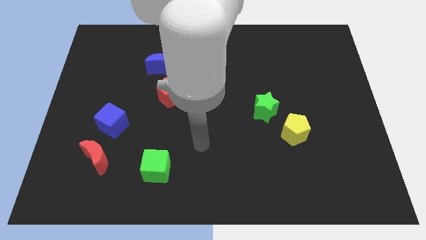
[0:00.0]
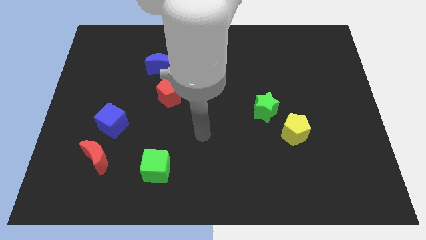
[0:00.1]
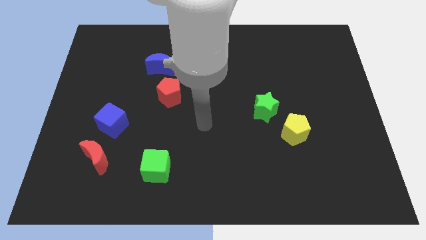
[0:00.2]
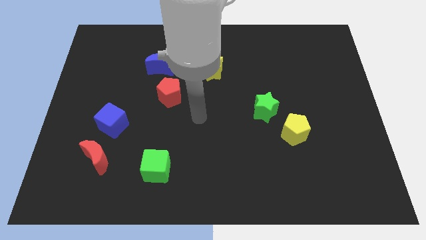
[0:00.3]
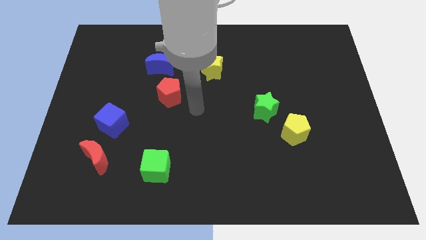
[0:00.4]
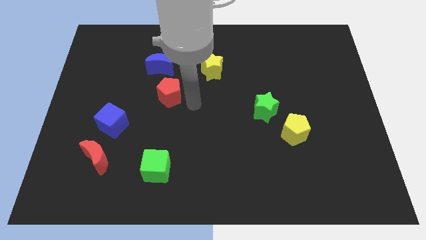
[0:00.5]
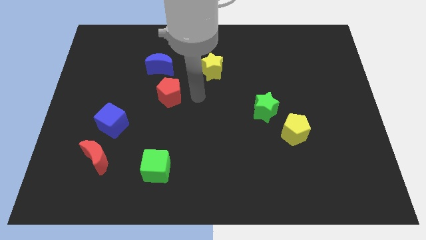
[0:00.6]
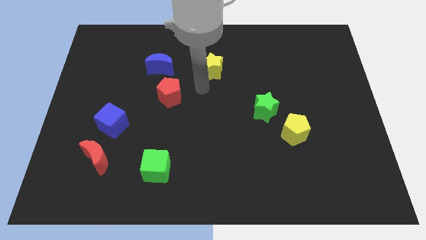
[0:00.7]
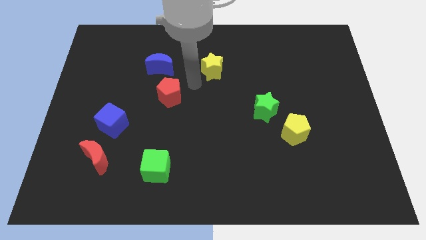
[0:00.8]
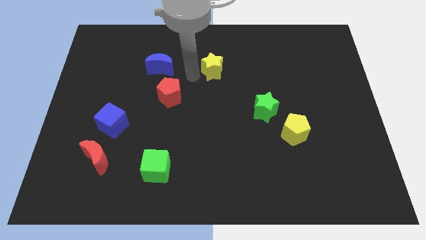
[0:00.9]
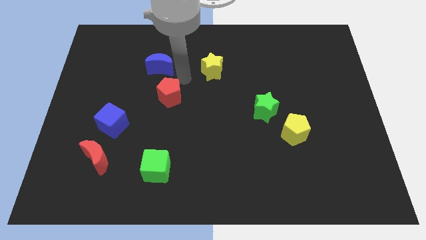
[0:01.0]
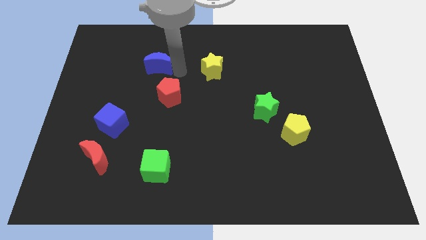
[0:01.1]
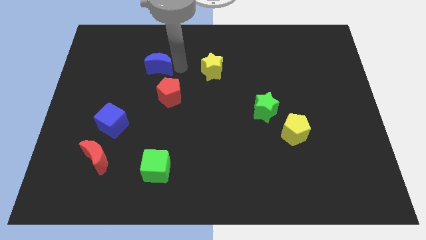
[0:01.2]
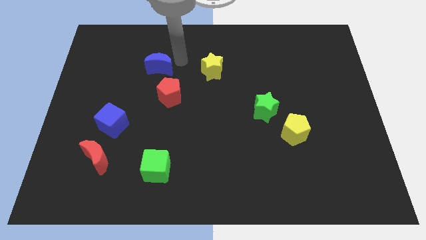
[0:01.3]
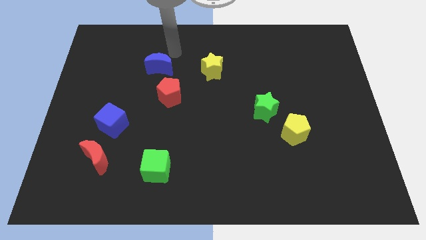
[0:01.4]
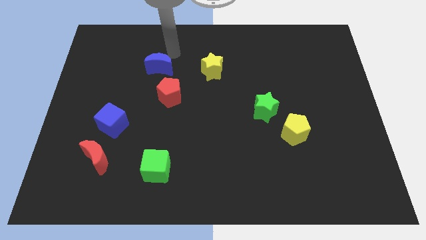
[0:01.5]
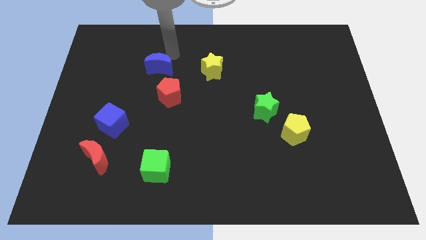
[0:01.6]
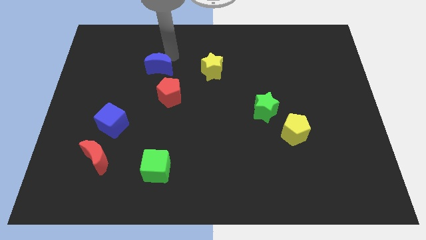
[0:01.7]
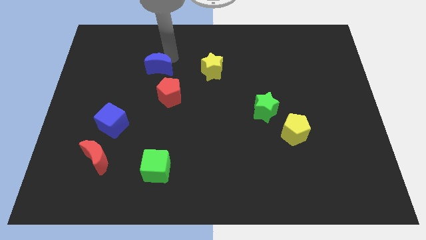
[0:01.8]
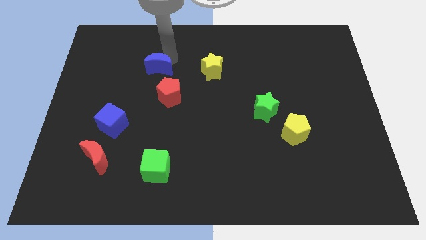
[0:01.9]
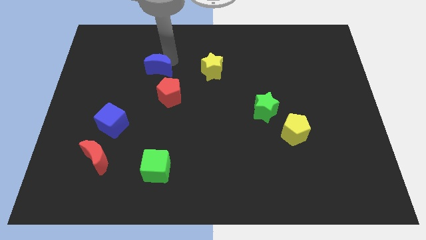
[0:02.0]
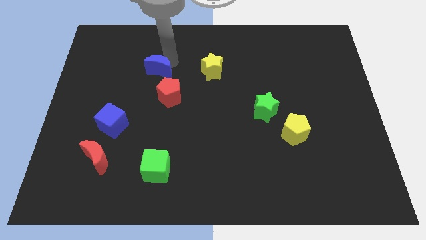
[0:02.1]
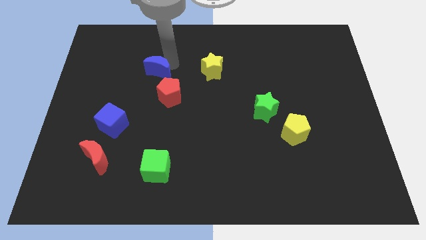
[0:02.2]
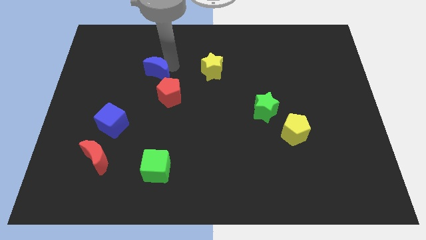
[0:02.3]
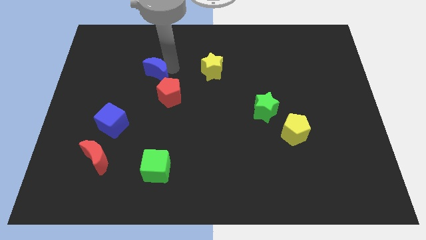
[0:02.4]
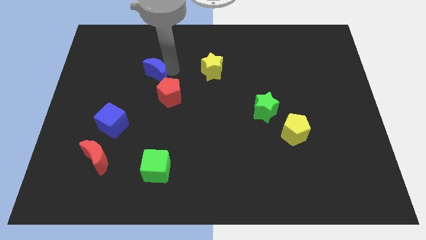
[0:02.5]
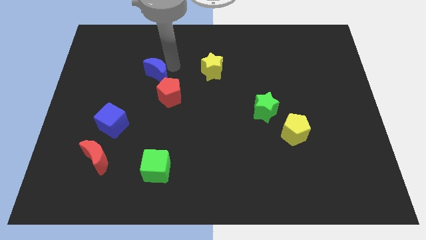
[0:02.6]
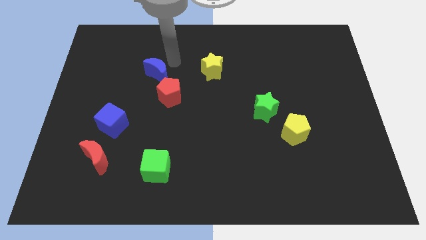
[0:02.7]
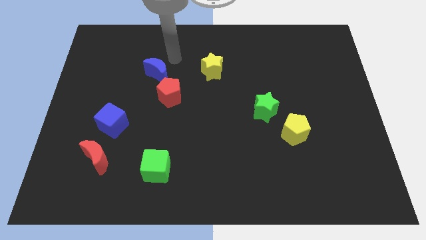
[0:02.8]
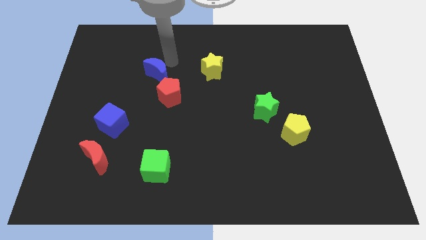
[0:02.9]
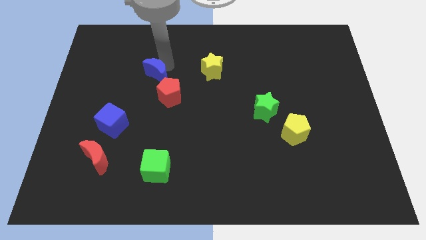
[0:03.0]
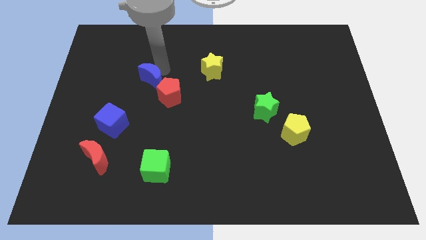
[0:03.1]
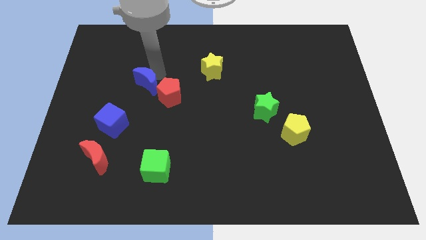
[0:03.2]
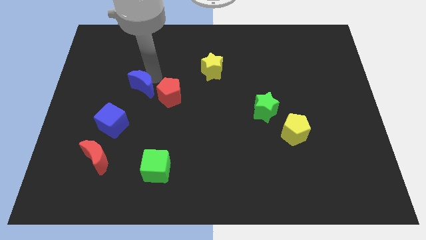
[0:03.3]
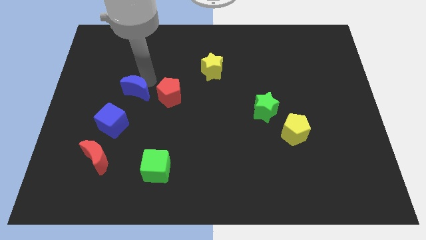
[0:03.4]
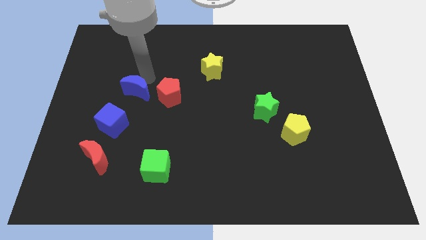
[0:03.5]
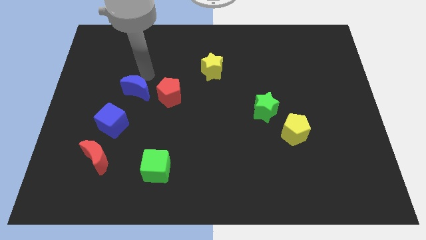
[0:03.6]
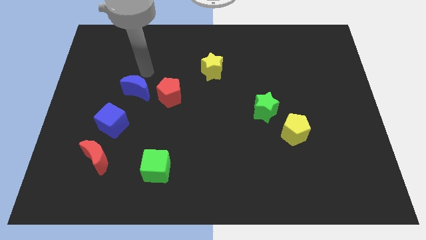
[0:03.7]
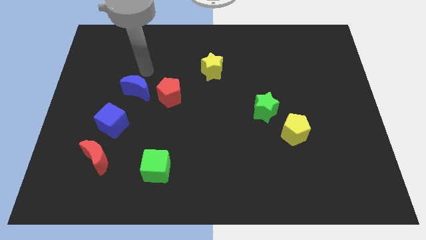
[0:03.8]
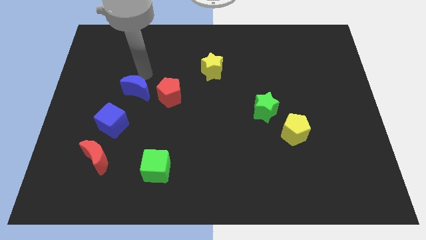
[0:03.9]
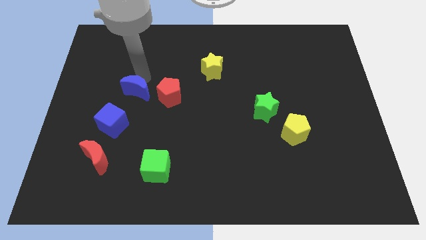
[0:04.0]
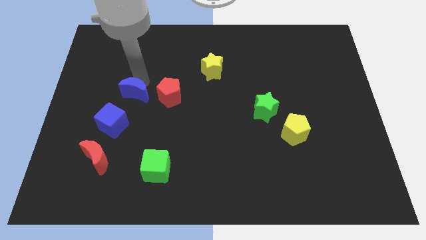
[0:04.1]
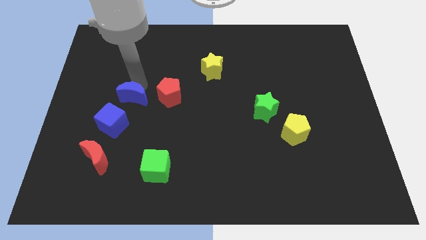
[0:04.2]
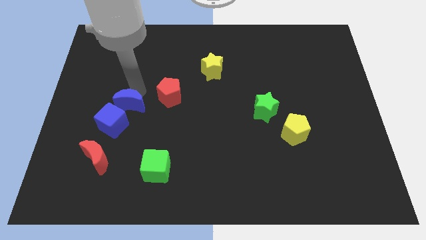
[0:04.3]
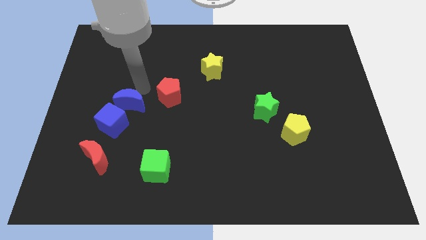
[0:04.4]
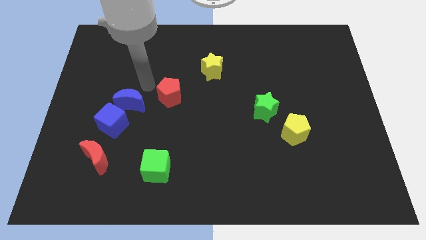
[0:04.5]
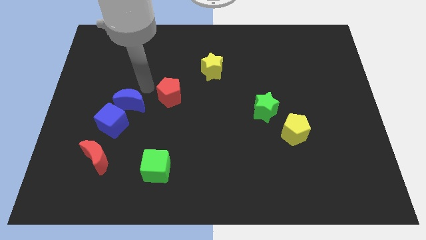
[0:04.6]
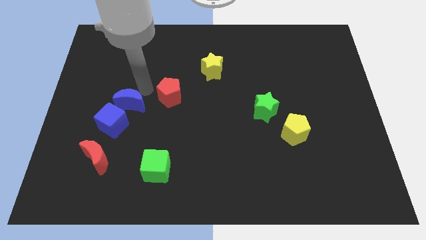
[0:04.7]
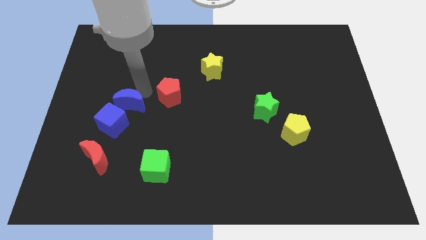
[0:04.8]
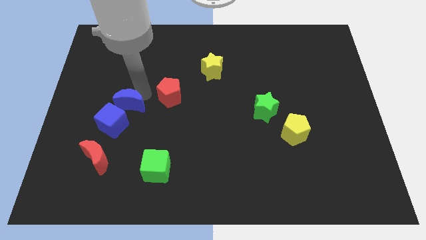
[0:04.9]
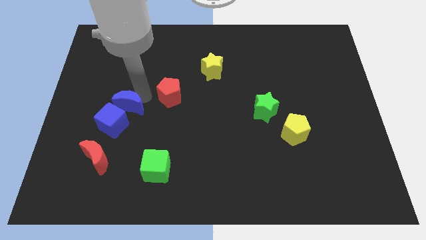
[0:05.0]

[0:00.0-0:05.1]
push the blue moon close to the blue cube

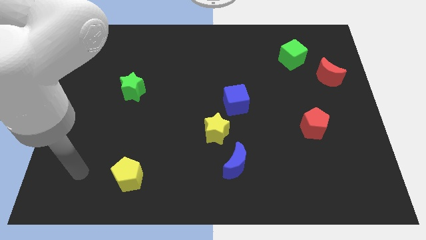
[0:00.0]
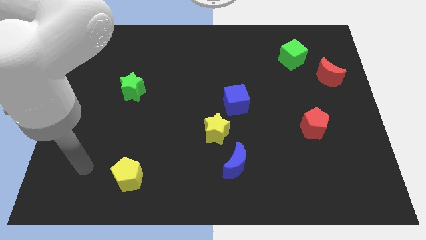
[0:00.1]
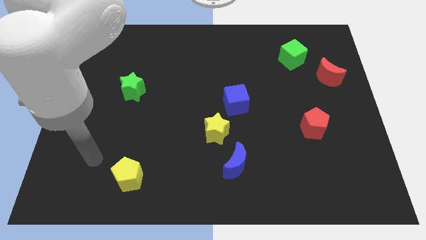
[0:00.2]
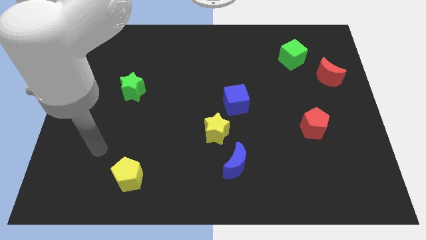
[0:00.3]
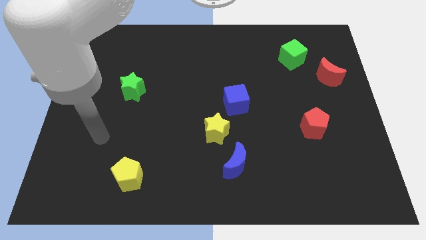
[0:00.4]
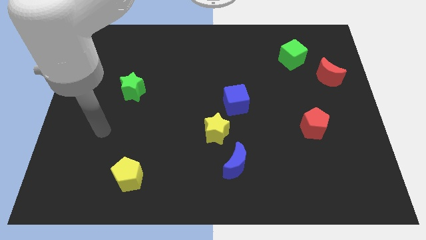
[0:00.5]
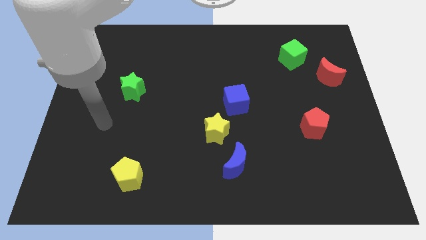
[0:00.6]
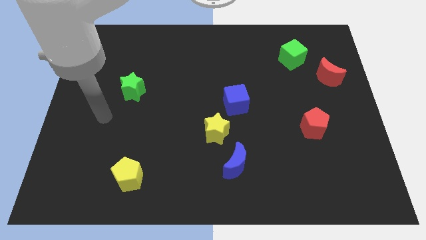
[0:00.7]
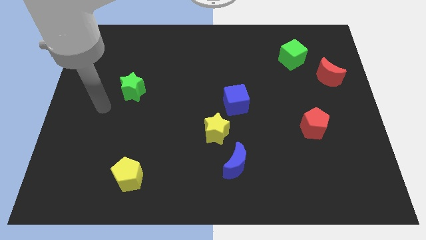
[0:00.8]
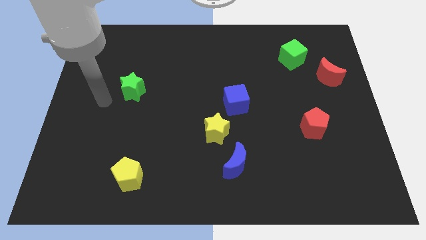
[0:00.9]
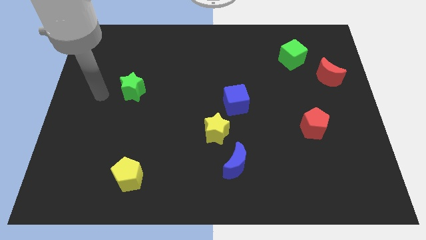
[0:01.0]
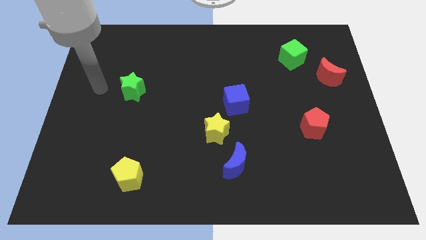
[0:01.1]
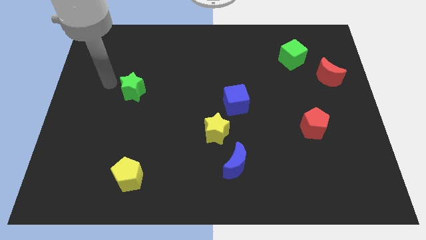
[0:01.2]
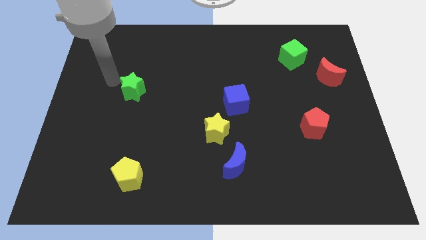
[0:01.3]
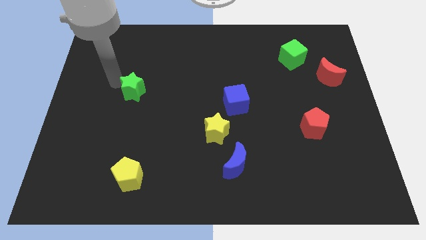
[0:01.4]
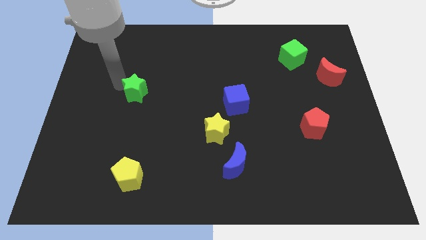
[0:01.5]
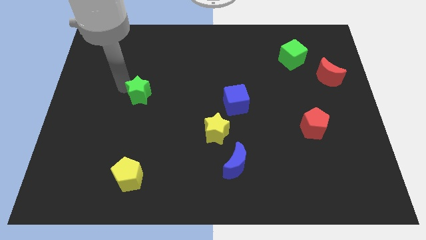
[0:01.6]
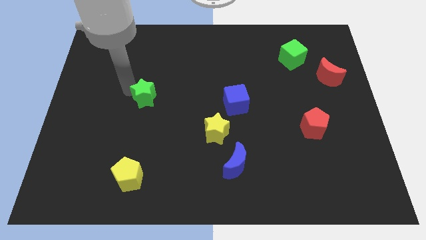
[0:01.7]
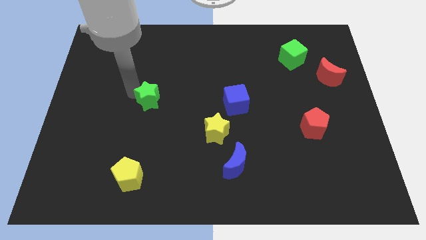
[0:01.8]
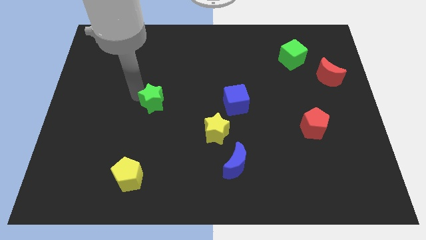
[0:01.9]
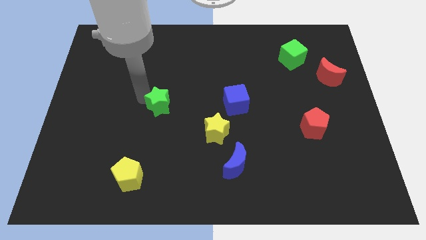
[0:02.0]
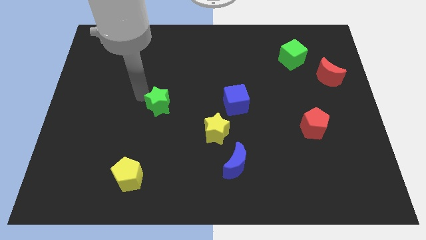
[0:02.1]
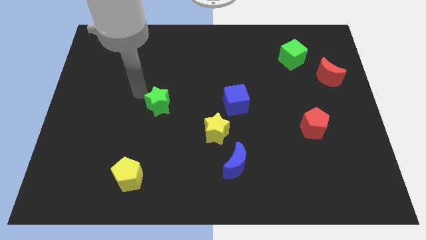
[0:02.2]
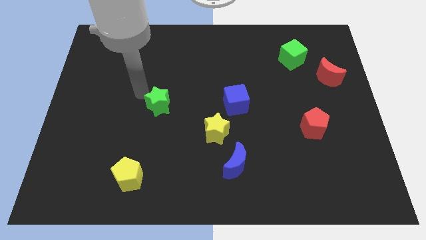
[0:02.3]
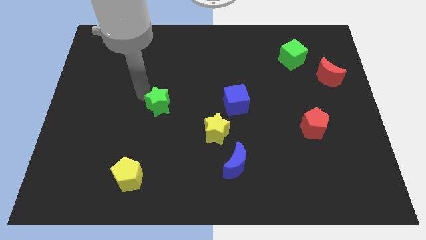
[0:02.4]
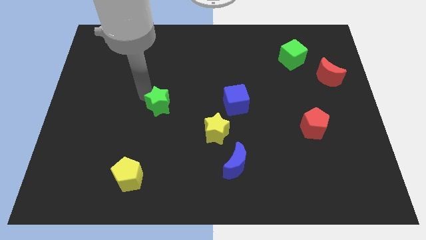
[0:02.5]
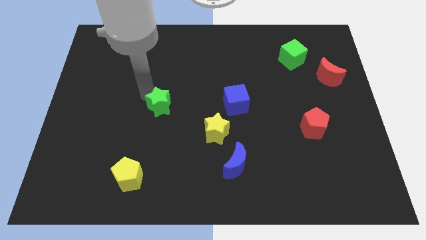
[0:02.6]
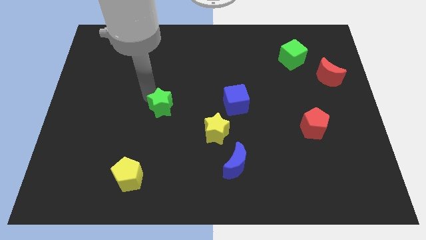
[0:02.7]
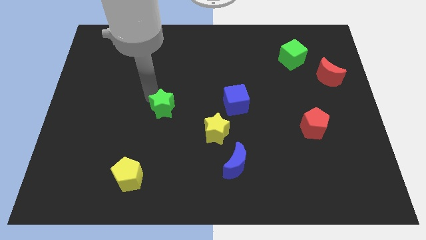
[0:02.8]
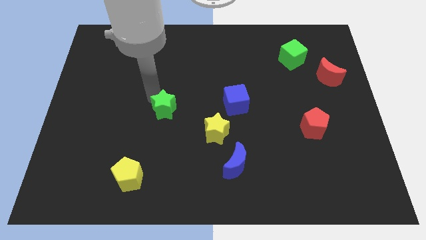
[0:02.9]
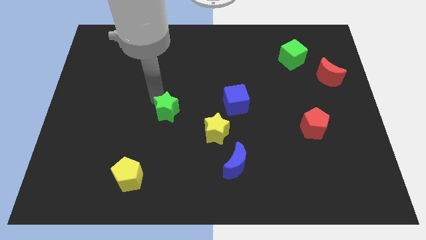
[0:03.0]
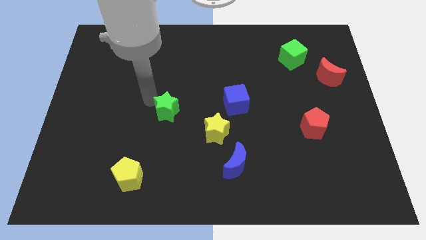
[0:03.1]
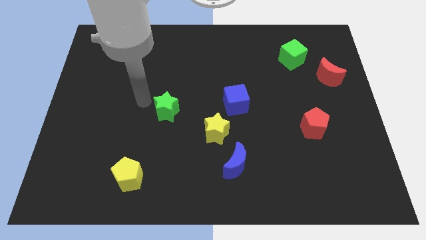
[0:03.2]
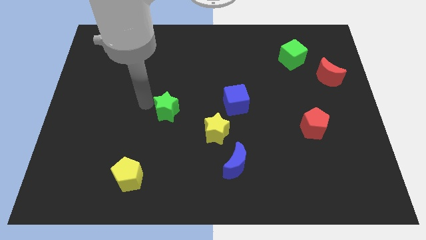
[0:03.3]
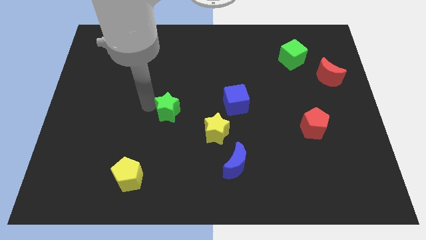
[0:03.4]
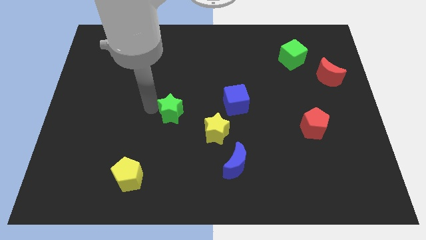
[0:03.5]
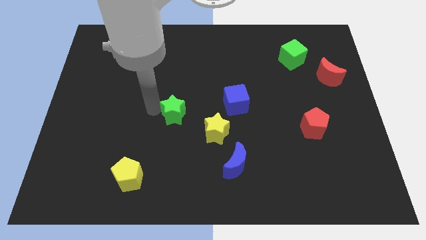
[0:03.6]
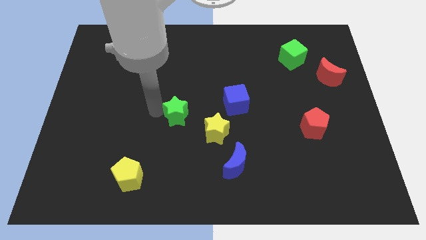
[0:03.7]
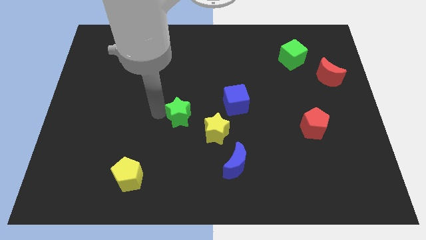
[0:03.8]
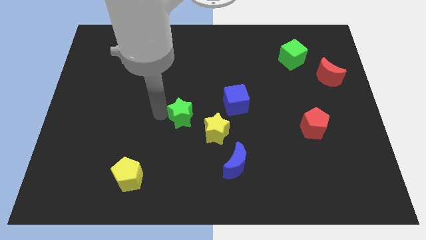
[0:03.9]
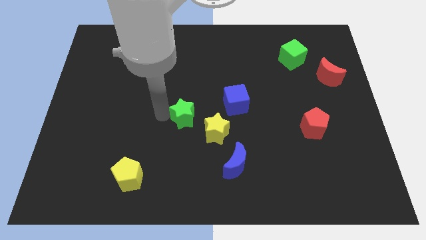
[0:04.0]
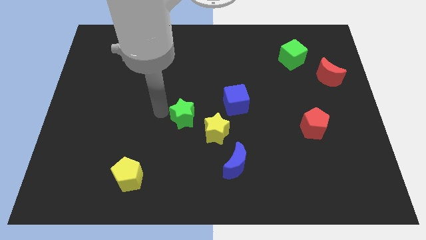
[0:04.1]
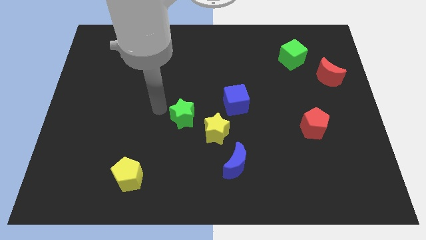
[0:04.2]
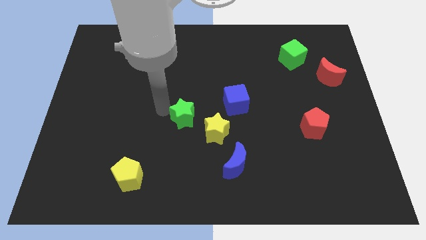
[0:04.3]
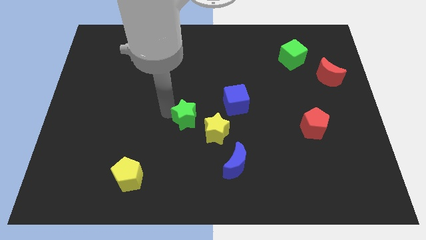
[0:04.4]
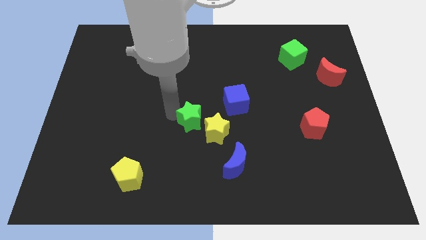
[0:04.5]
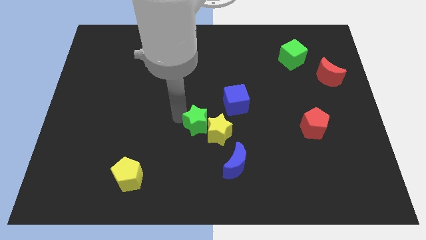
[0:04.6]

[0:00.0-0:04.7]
slide the green star towards the yellow star
